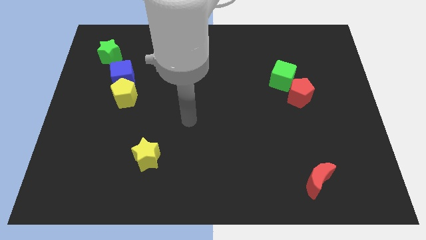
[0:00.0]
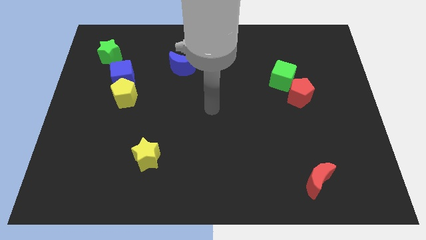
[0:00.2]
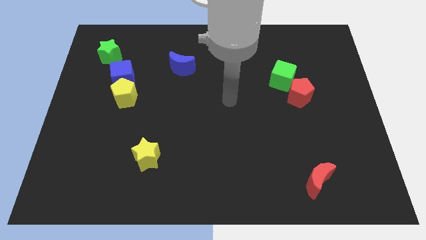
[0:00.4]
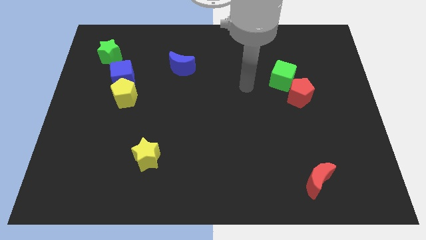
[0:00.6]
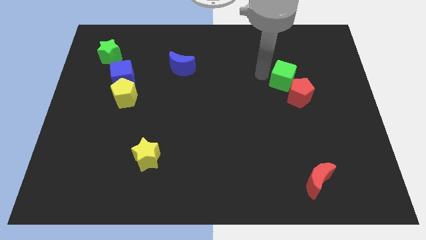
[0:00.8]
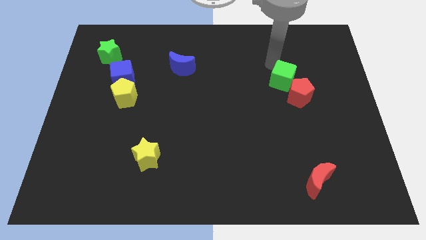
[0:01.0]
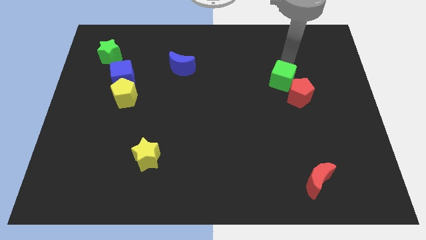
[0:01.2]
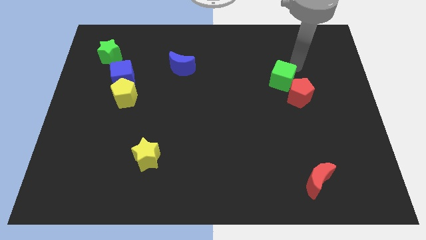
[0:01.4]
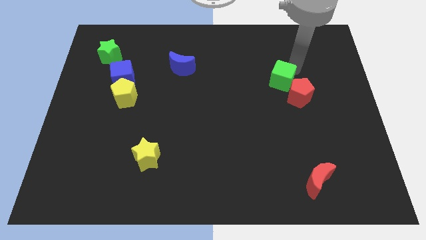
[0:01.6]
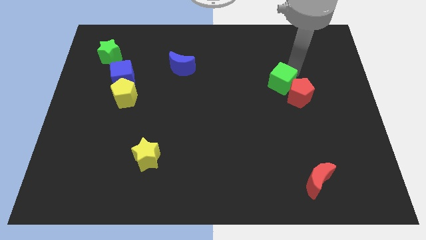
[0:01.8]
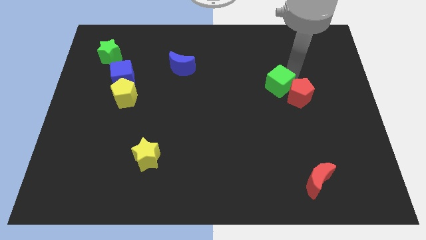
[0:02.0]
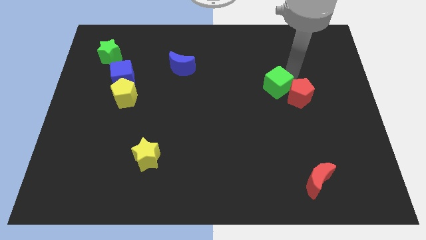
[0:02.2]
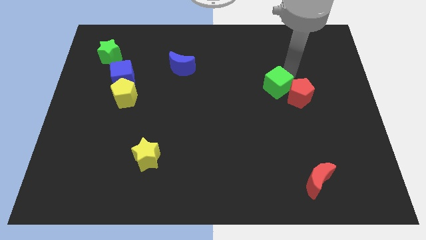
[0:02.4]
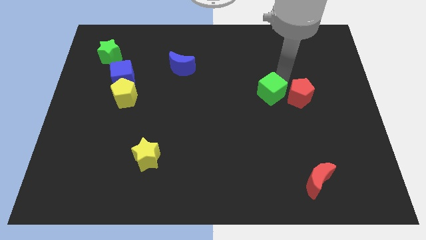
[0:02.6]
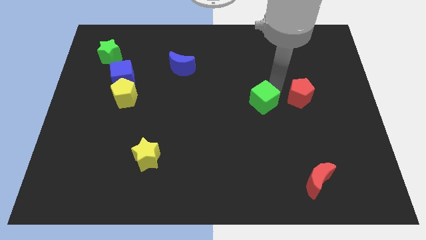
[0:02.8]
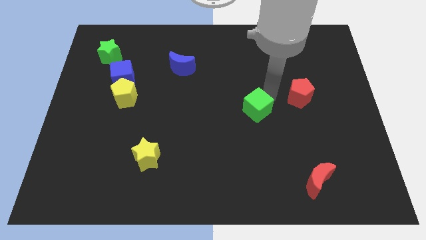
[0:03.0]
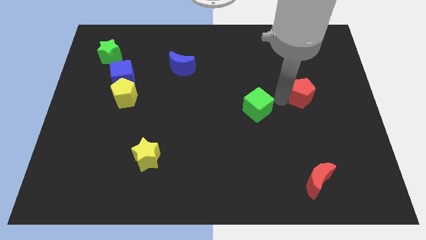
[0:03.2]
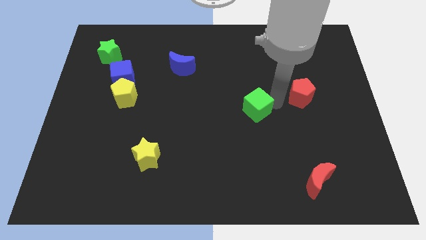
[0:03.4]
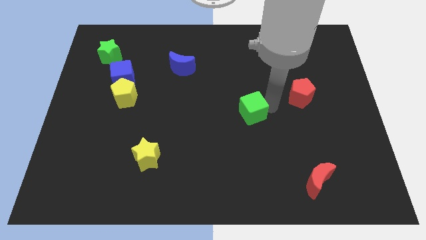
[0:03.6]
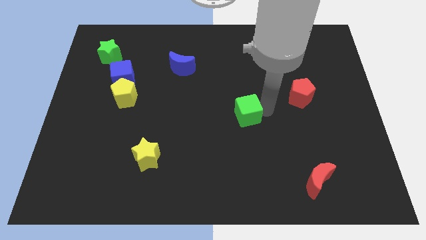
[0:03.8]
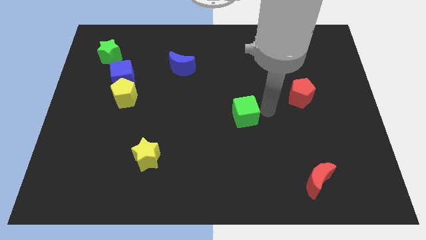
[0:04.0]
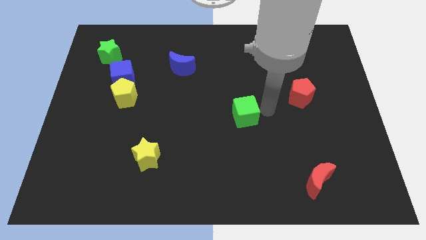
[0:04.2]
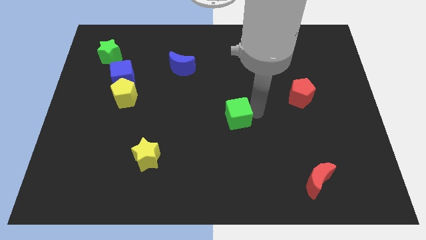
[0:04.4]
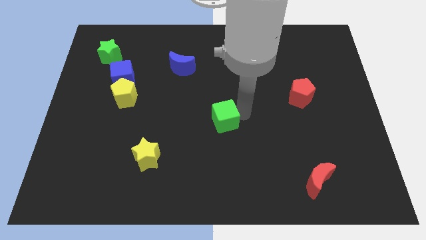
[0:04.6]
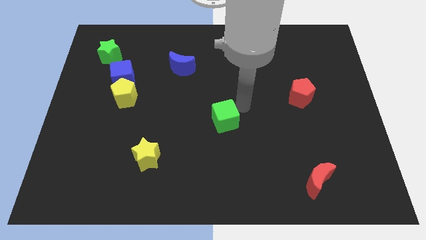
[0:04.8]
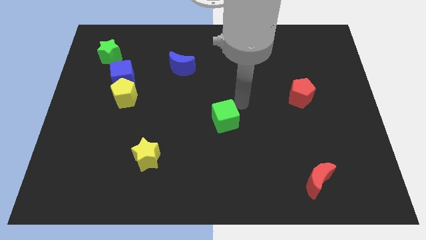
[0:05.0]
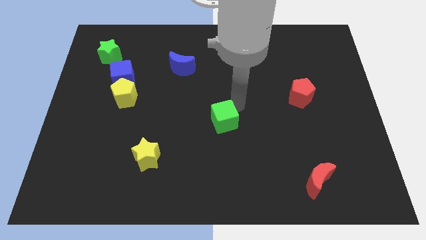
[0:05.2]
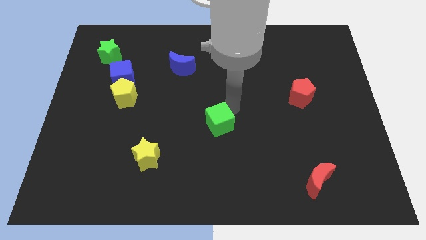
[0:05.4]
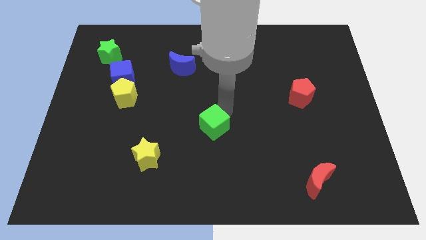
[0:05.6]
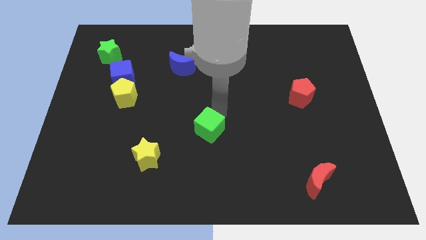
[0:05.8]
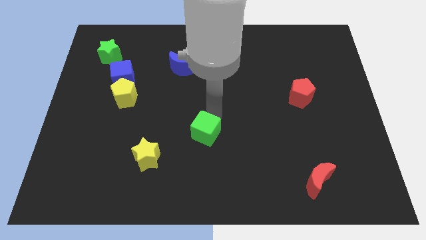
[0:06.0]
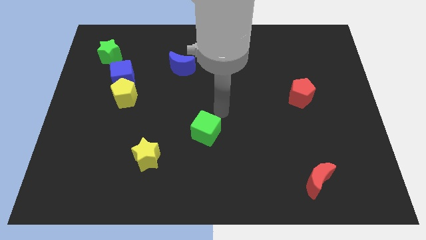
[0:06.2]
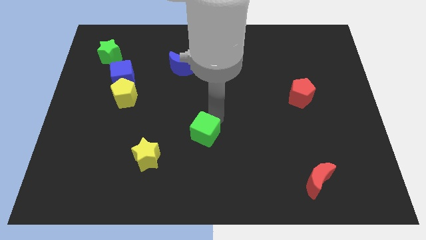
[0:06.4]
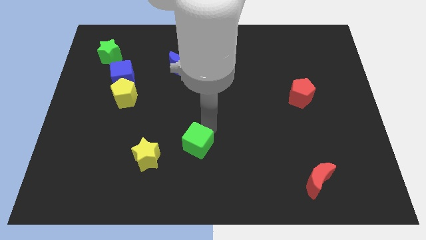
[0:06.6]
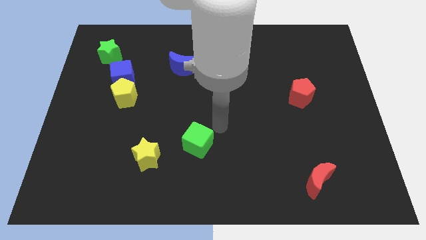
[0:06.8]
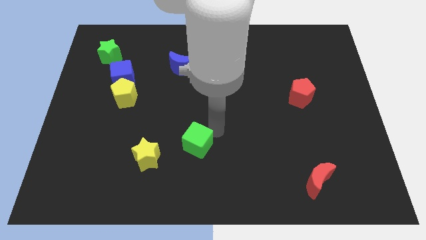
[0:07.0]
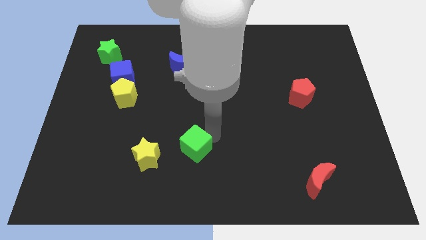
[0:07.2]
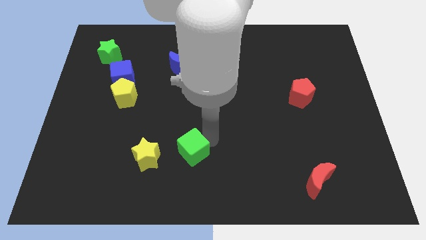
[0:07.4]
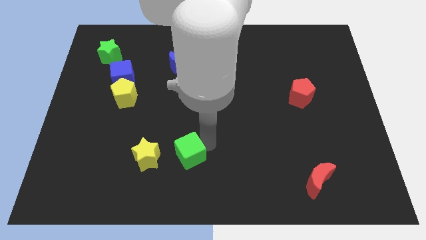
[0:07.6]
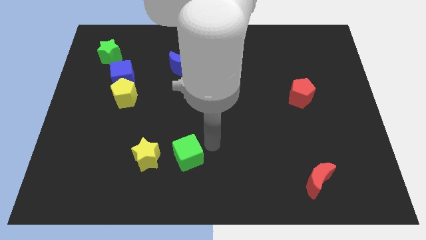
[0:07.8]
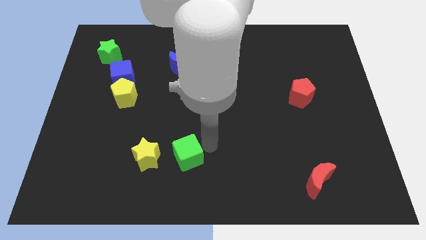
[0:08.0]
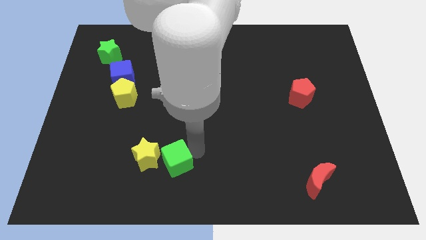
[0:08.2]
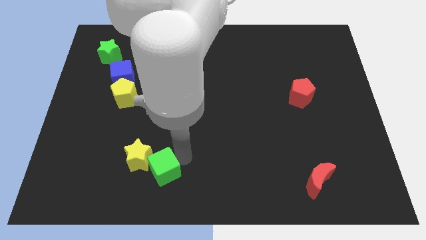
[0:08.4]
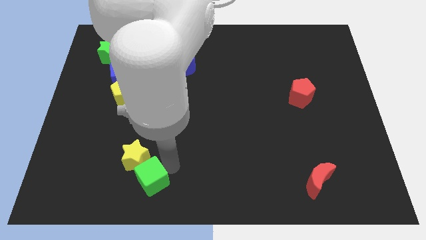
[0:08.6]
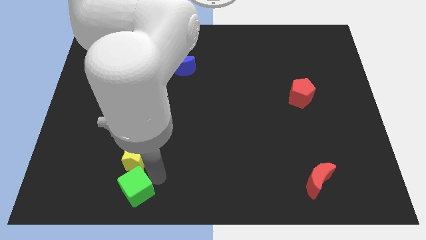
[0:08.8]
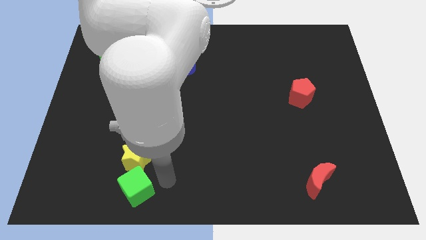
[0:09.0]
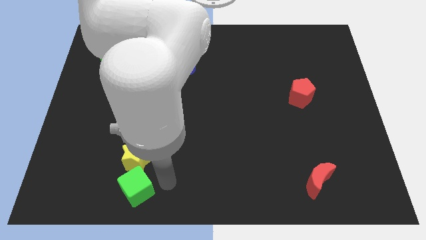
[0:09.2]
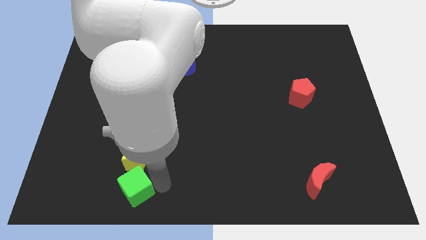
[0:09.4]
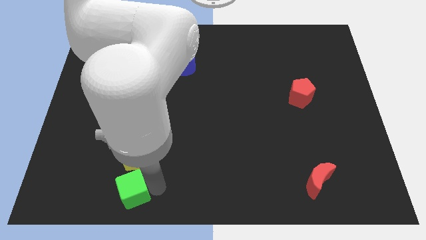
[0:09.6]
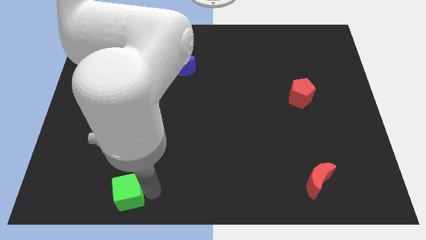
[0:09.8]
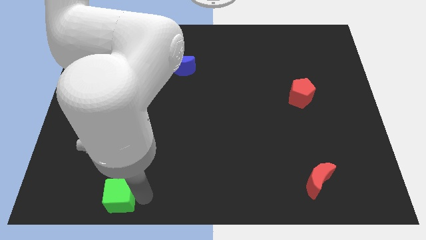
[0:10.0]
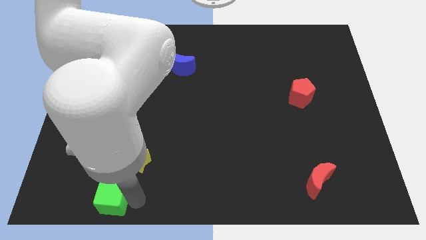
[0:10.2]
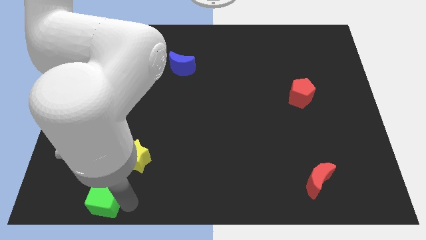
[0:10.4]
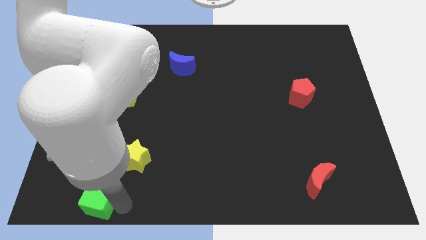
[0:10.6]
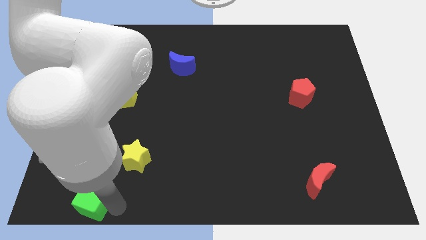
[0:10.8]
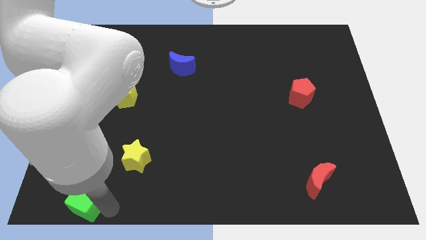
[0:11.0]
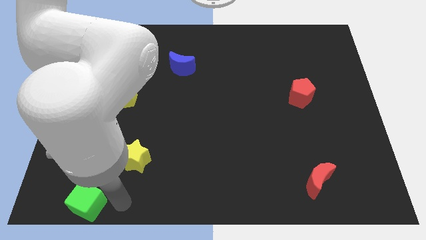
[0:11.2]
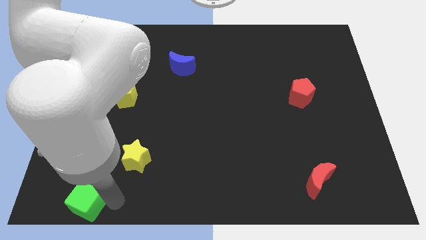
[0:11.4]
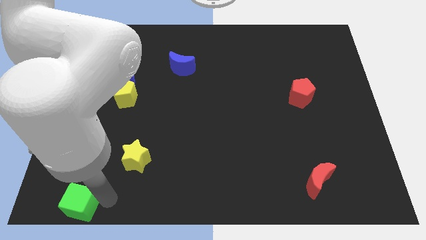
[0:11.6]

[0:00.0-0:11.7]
put the green cube to the bottom left corner
